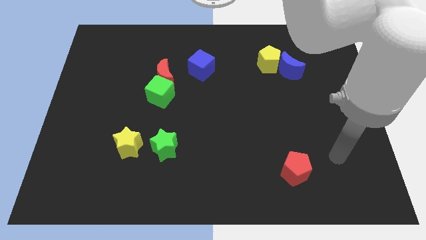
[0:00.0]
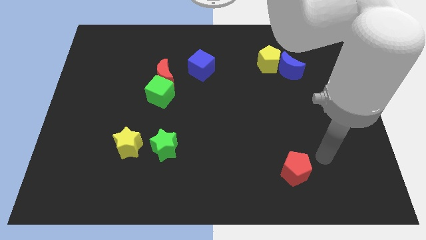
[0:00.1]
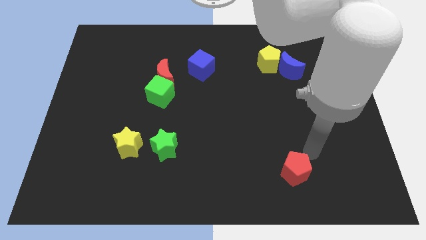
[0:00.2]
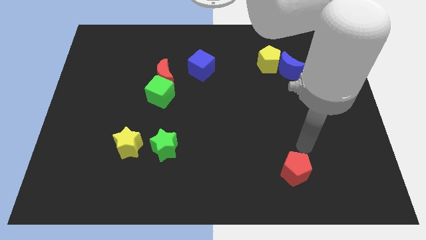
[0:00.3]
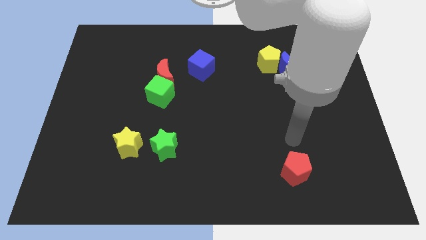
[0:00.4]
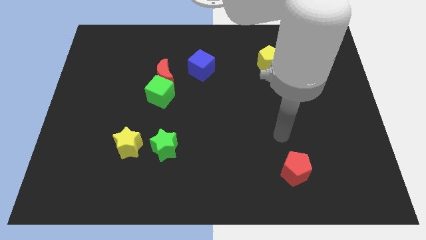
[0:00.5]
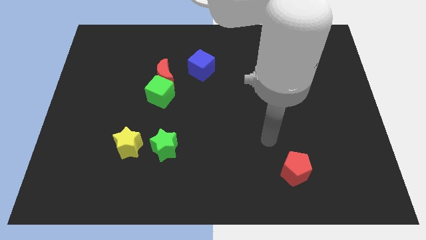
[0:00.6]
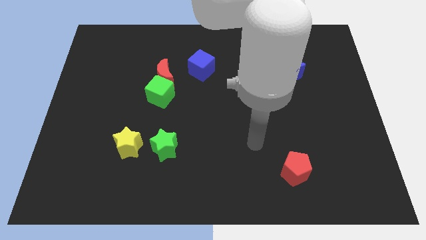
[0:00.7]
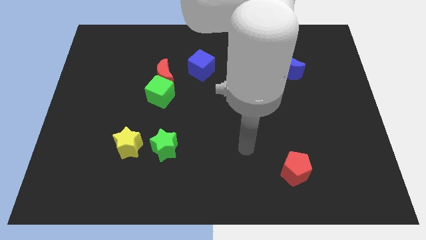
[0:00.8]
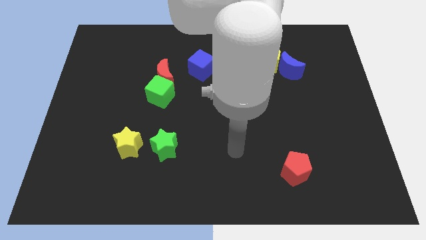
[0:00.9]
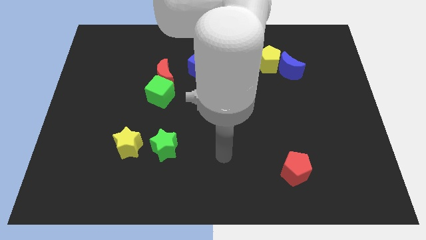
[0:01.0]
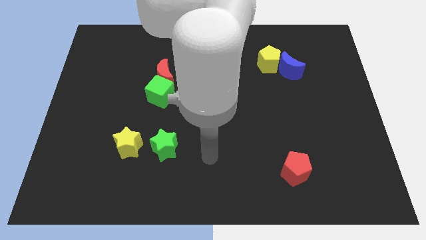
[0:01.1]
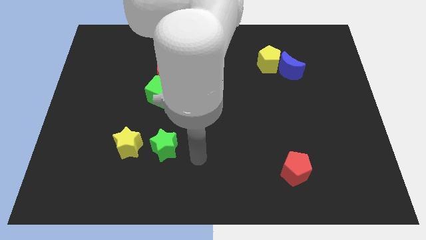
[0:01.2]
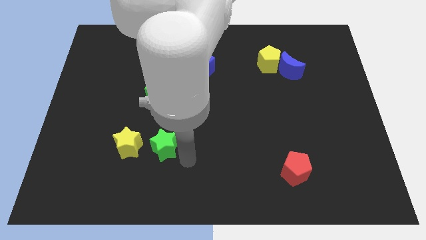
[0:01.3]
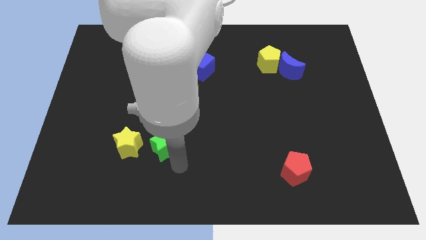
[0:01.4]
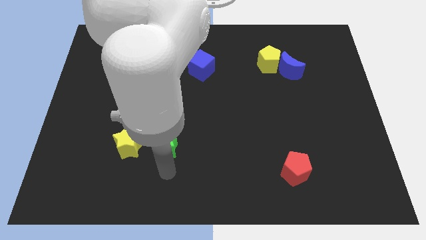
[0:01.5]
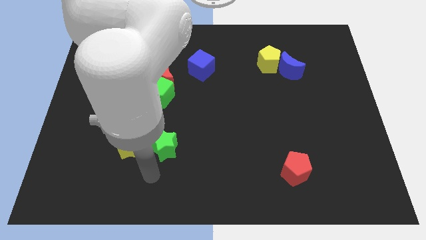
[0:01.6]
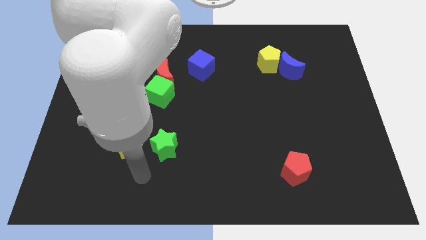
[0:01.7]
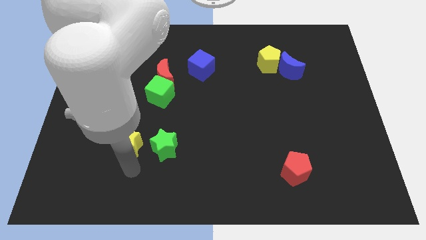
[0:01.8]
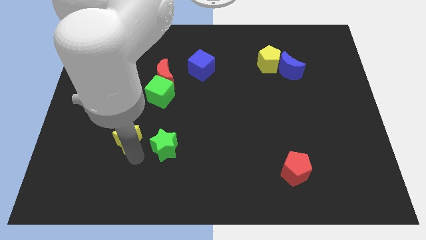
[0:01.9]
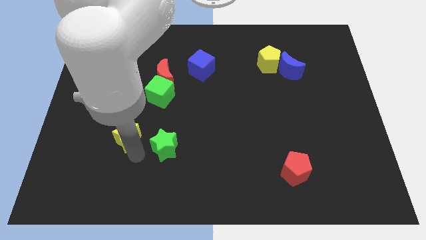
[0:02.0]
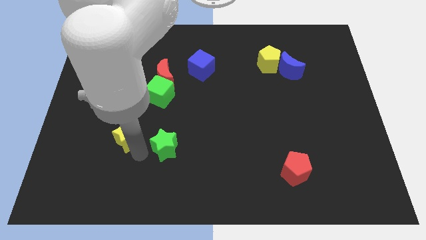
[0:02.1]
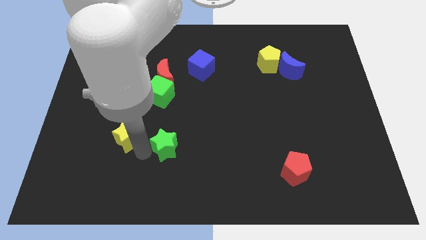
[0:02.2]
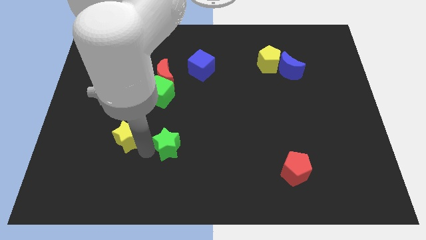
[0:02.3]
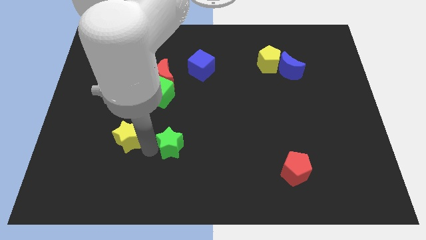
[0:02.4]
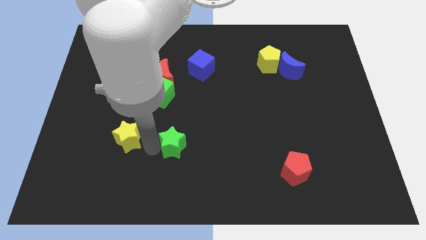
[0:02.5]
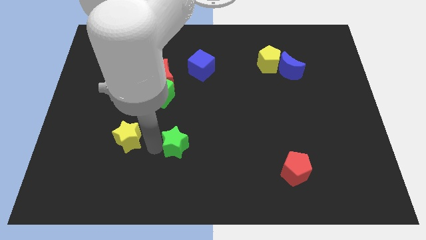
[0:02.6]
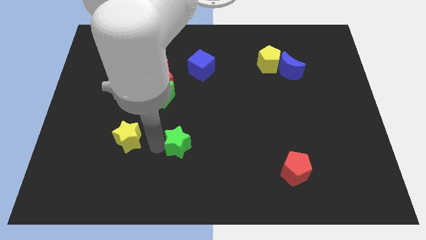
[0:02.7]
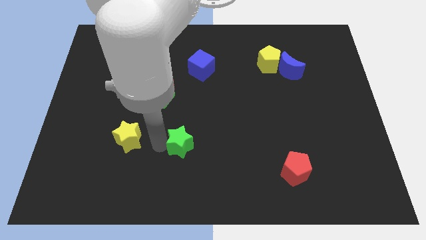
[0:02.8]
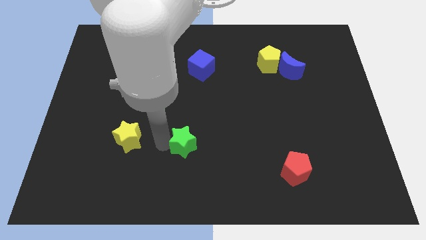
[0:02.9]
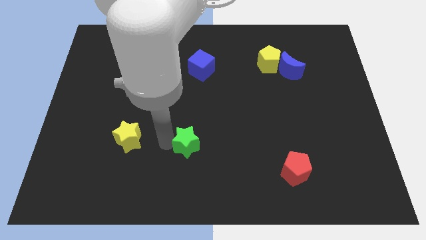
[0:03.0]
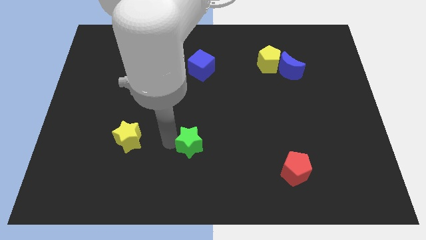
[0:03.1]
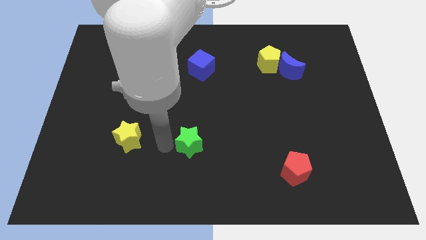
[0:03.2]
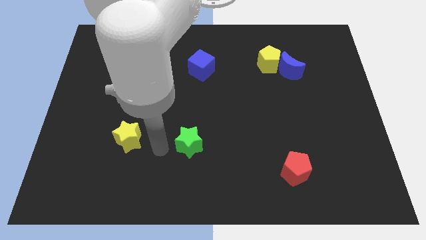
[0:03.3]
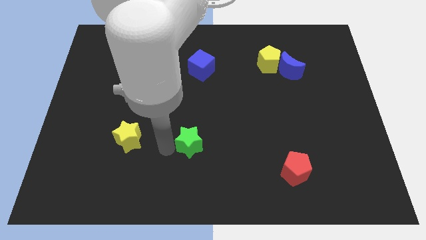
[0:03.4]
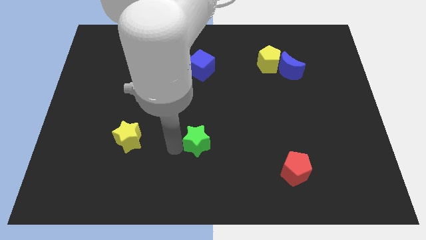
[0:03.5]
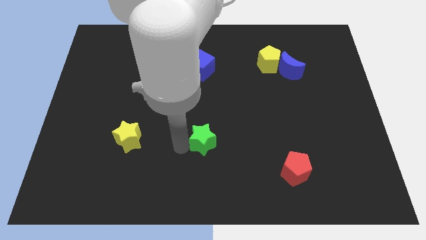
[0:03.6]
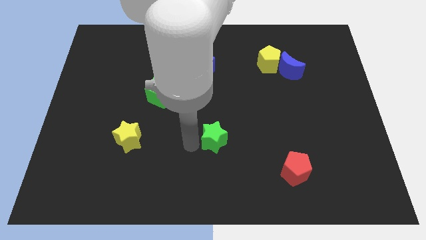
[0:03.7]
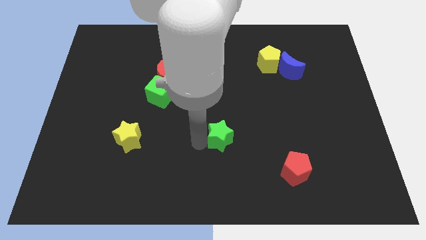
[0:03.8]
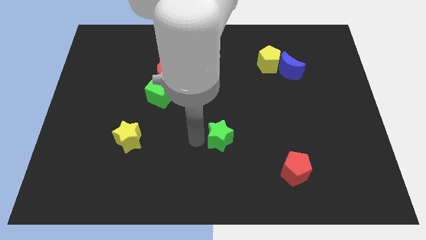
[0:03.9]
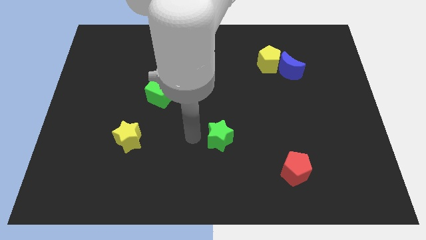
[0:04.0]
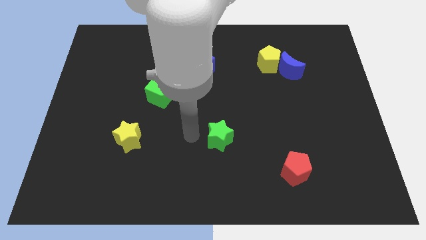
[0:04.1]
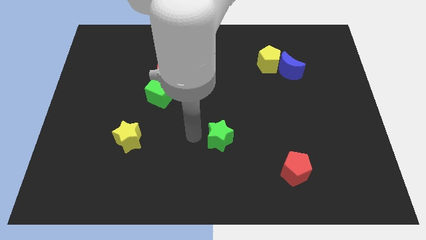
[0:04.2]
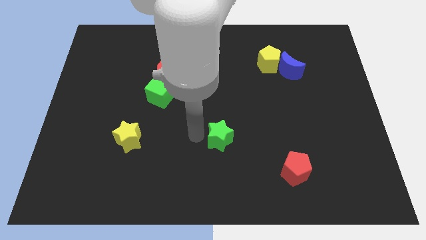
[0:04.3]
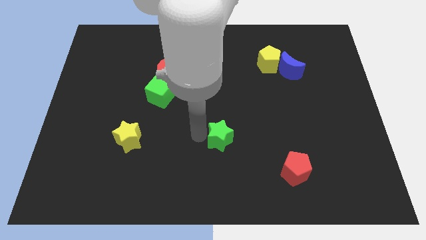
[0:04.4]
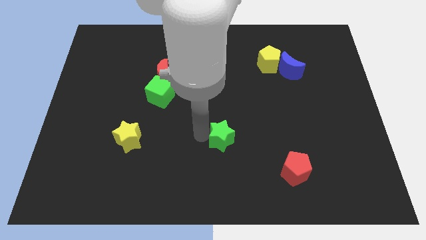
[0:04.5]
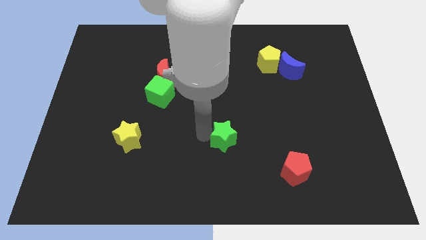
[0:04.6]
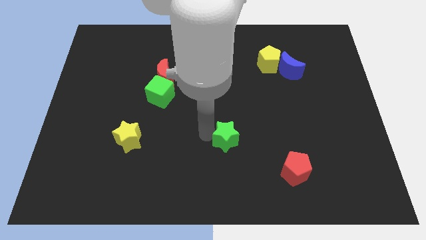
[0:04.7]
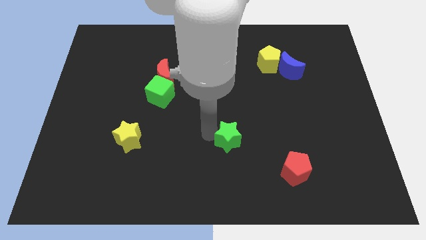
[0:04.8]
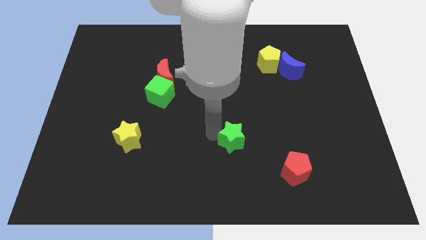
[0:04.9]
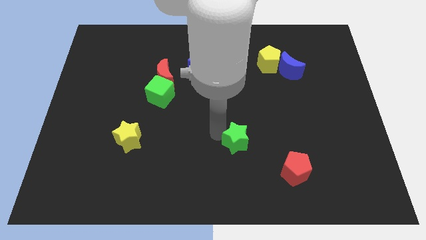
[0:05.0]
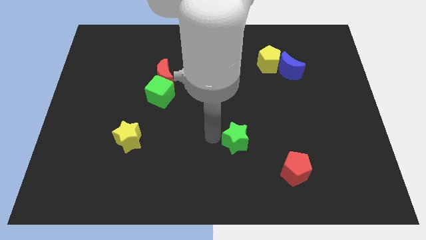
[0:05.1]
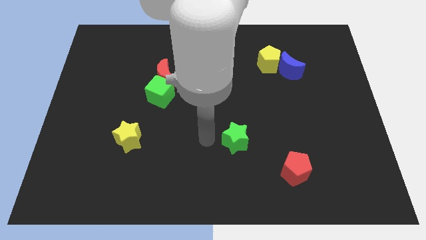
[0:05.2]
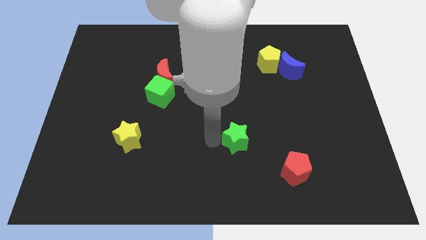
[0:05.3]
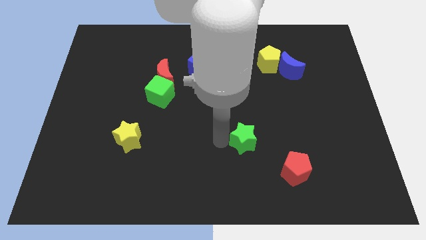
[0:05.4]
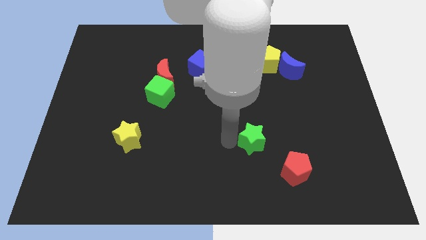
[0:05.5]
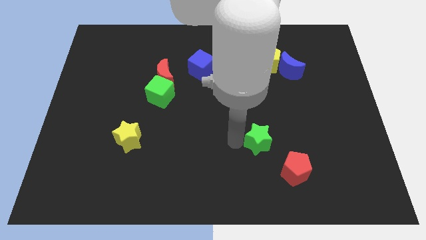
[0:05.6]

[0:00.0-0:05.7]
move the green star right

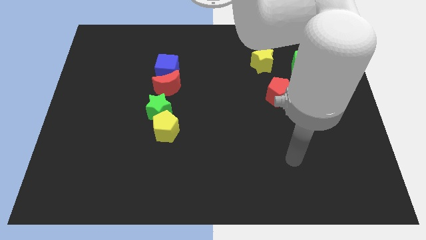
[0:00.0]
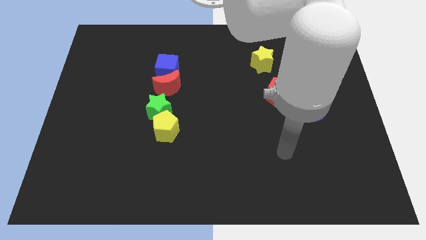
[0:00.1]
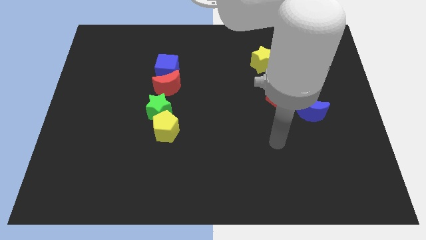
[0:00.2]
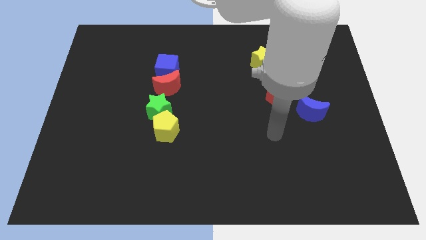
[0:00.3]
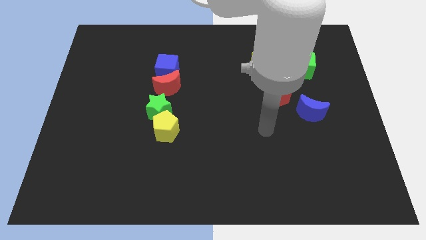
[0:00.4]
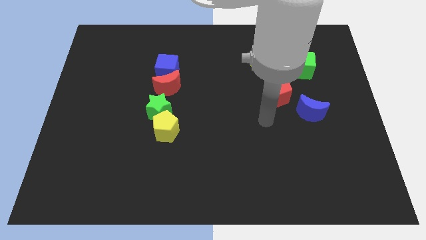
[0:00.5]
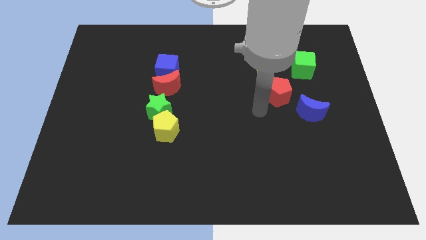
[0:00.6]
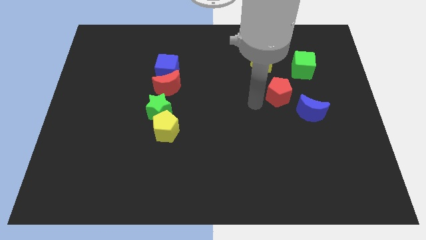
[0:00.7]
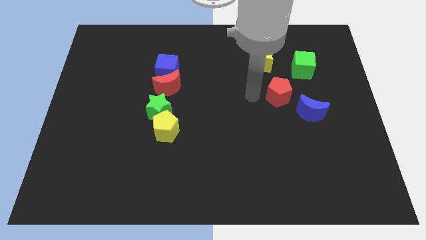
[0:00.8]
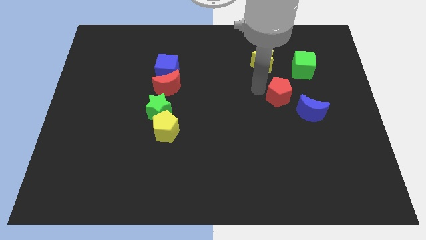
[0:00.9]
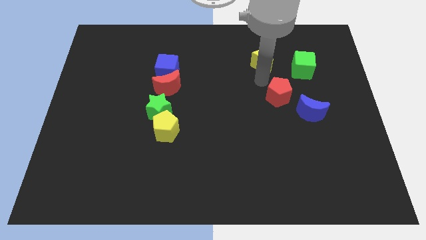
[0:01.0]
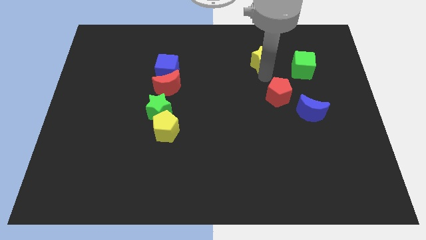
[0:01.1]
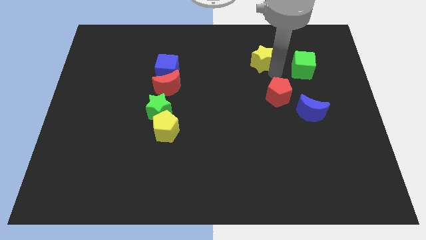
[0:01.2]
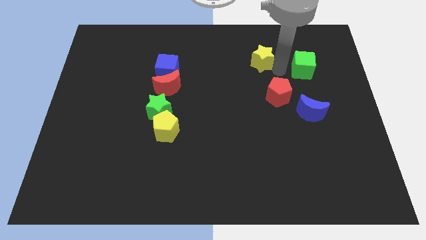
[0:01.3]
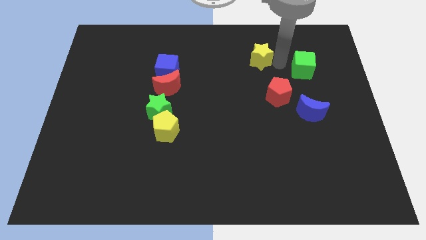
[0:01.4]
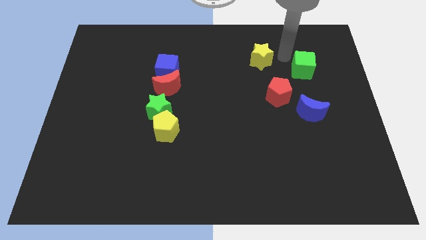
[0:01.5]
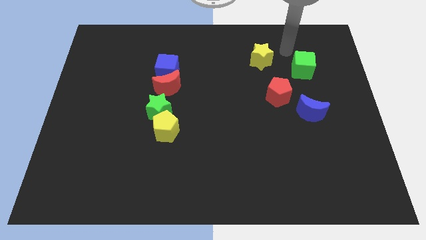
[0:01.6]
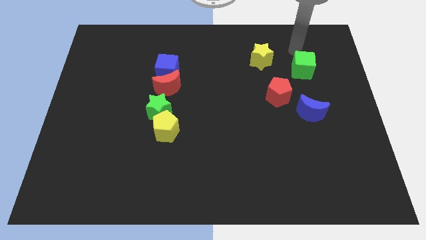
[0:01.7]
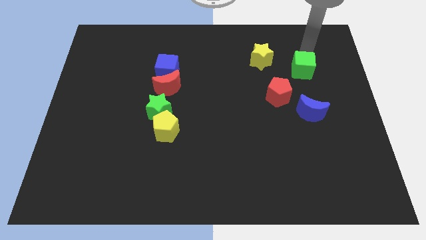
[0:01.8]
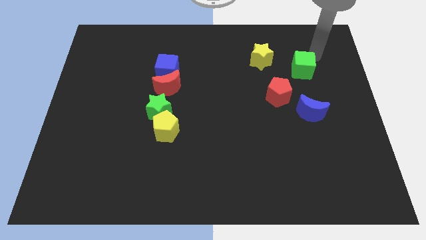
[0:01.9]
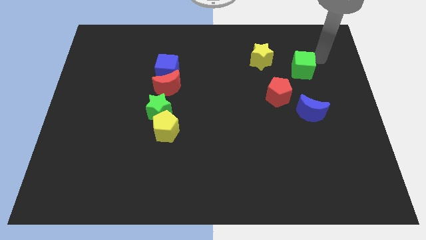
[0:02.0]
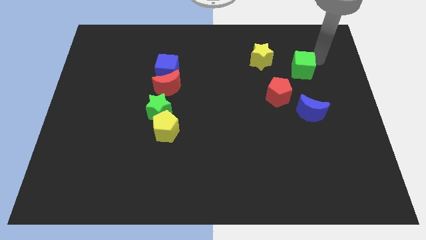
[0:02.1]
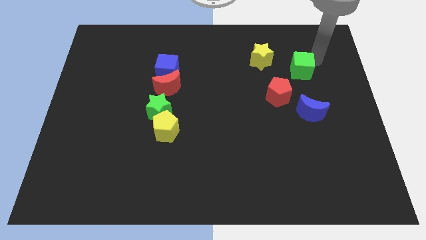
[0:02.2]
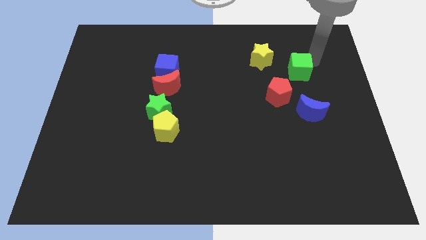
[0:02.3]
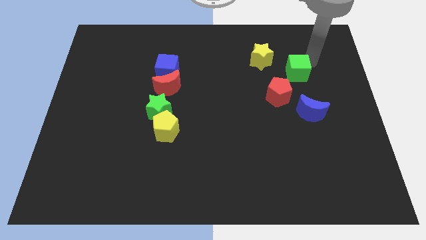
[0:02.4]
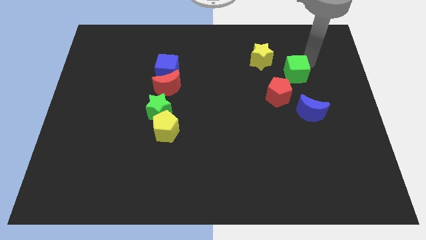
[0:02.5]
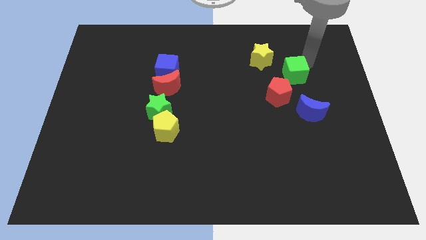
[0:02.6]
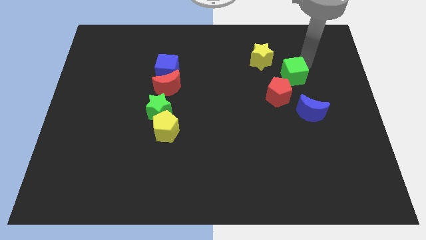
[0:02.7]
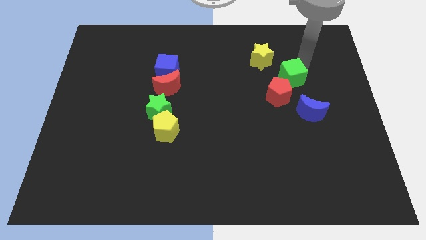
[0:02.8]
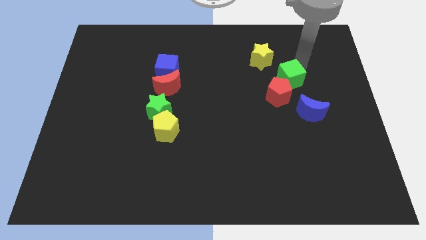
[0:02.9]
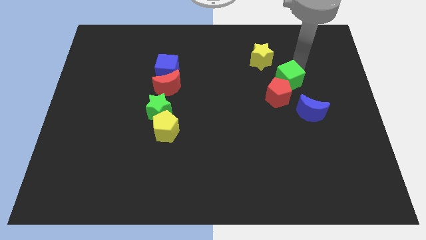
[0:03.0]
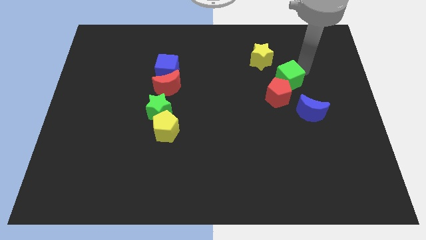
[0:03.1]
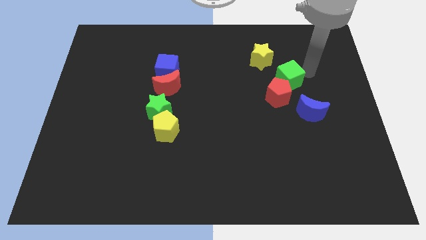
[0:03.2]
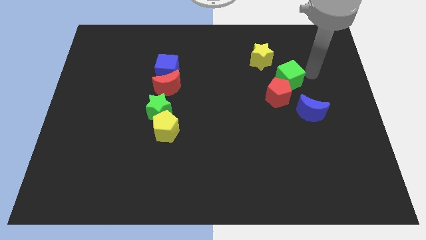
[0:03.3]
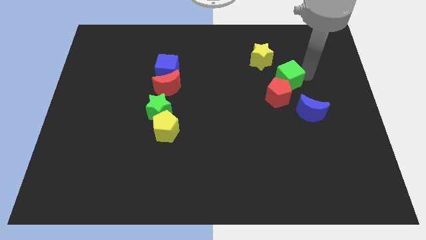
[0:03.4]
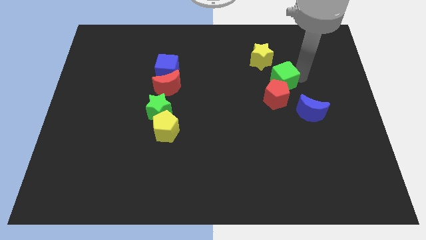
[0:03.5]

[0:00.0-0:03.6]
slightly move the green cube downwards and to the left
